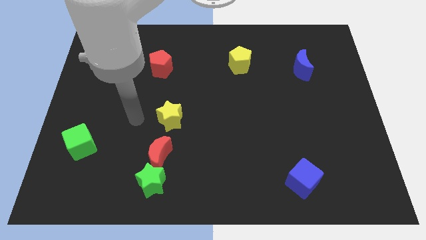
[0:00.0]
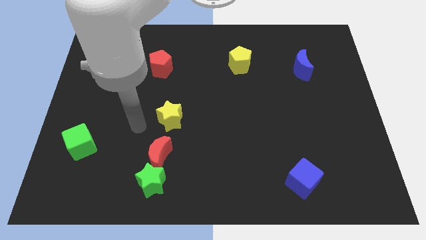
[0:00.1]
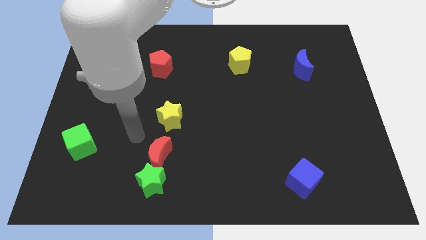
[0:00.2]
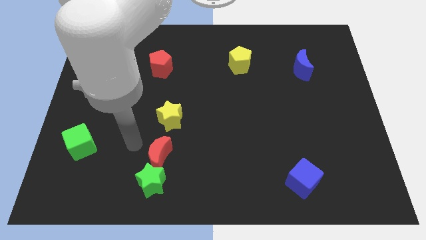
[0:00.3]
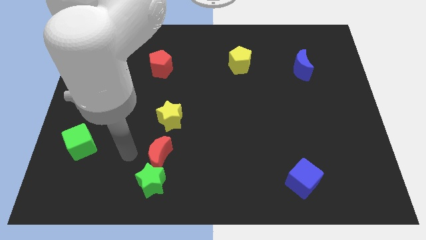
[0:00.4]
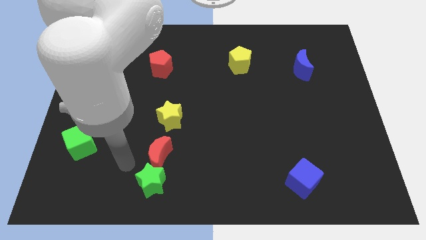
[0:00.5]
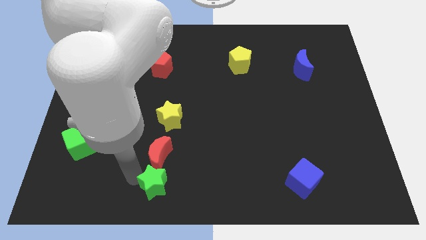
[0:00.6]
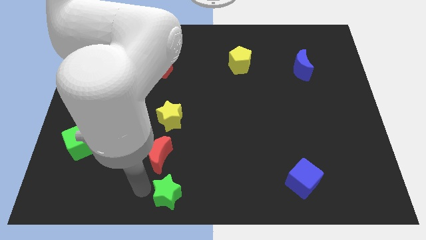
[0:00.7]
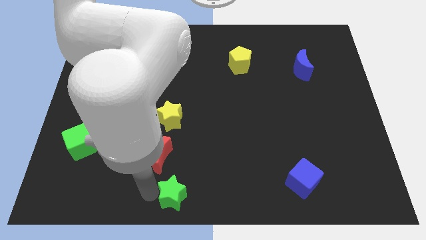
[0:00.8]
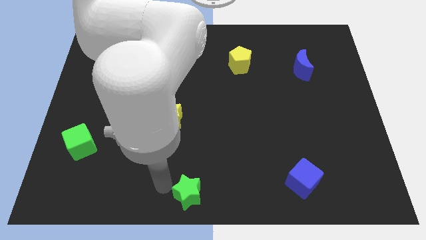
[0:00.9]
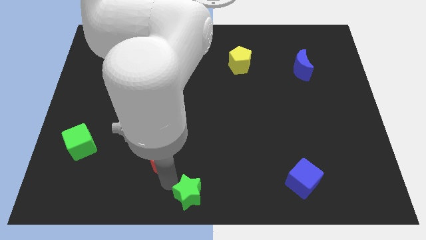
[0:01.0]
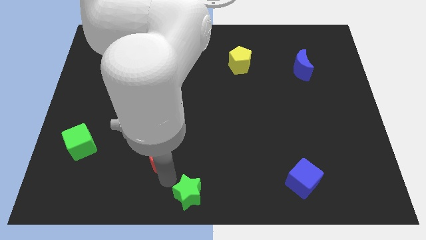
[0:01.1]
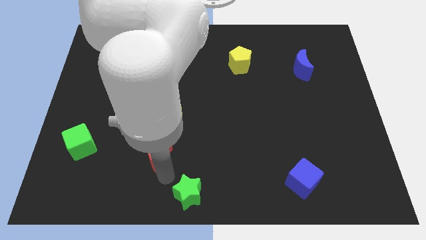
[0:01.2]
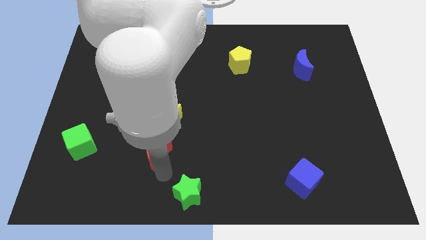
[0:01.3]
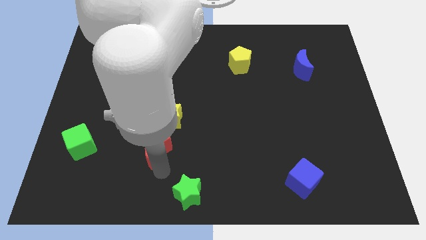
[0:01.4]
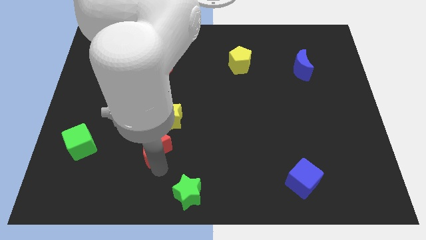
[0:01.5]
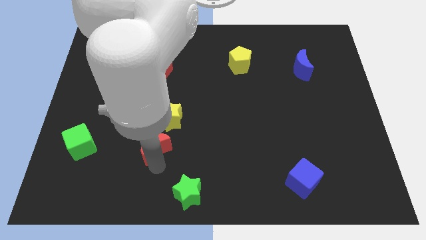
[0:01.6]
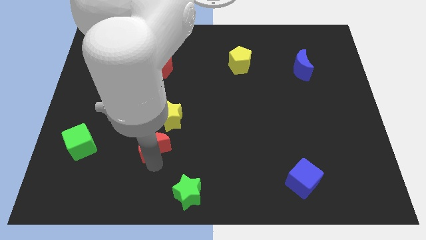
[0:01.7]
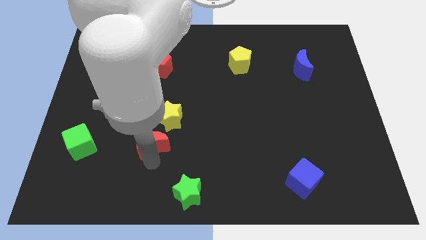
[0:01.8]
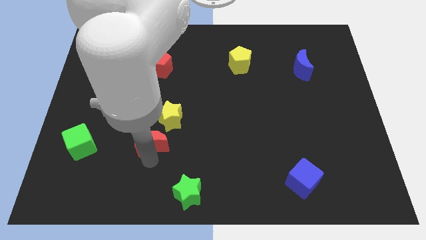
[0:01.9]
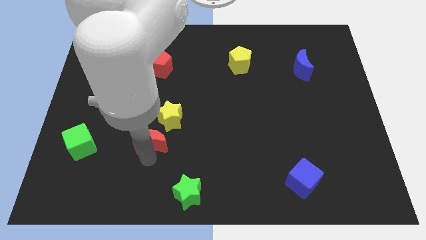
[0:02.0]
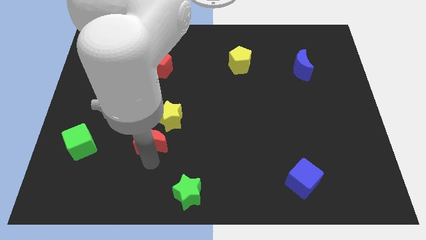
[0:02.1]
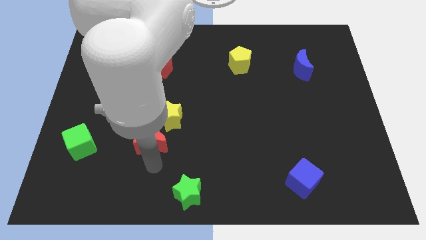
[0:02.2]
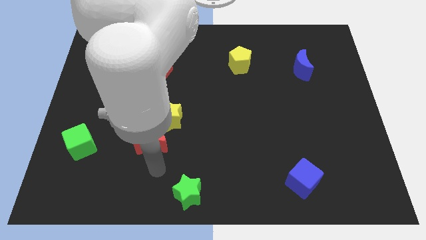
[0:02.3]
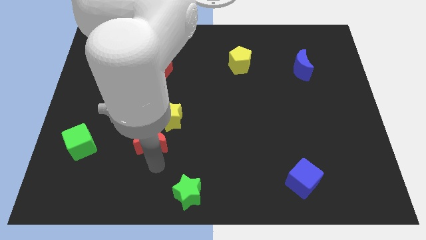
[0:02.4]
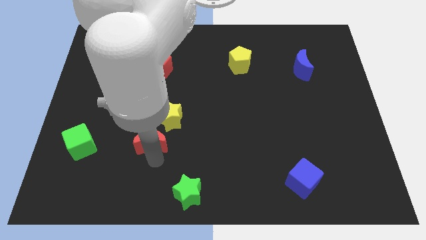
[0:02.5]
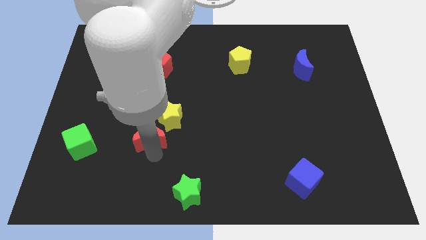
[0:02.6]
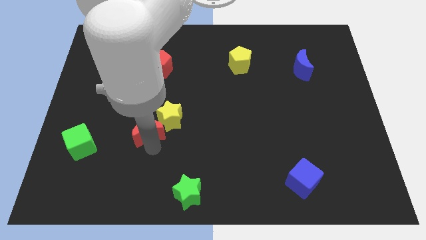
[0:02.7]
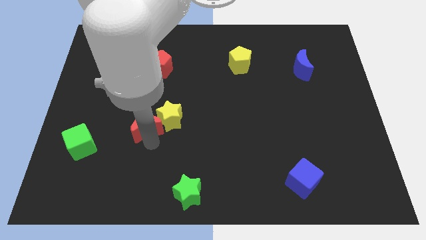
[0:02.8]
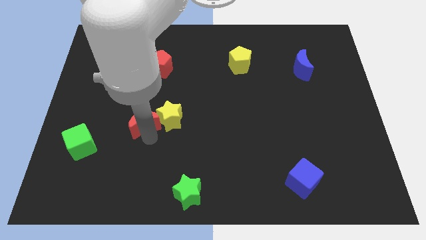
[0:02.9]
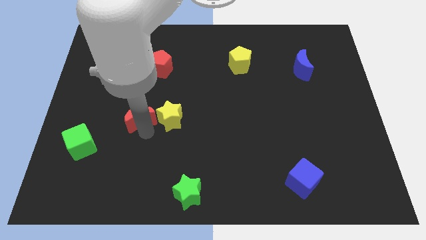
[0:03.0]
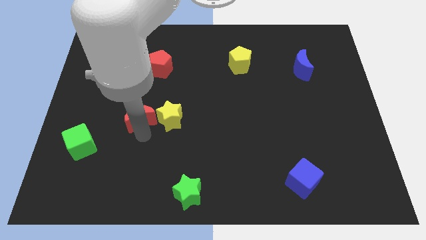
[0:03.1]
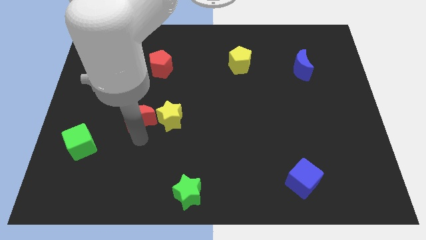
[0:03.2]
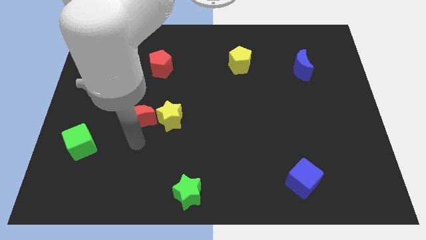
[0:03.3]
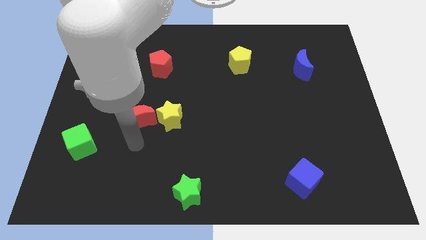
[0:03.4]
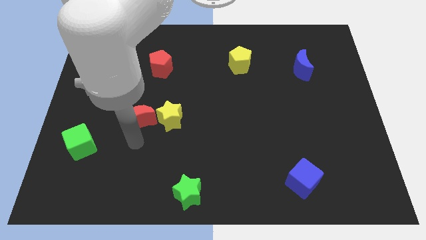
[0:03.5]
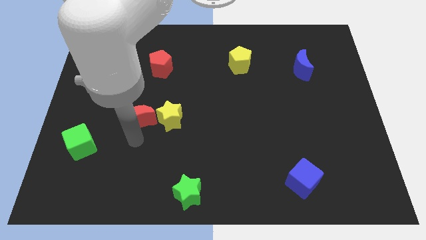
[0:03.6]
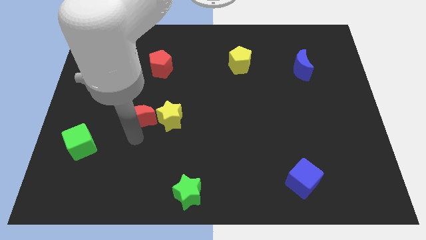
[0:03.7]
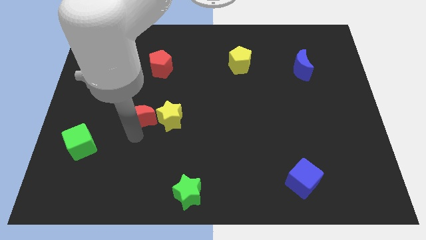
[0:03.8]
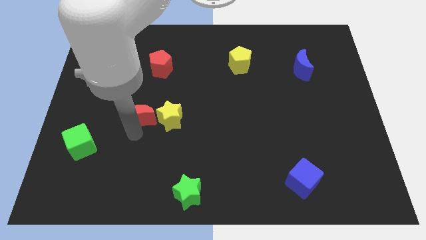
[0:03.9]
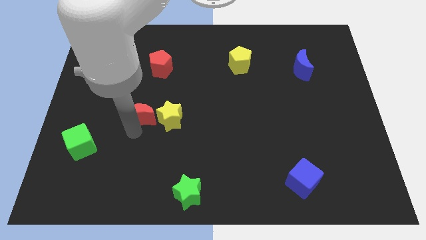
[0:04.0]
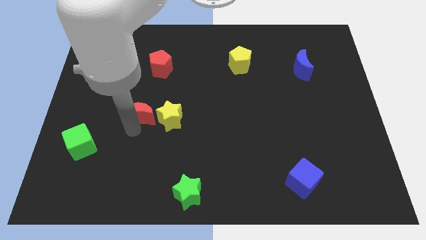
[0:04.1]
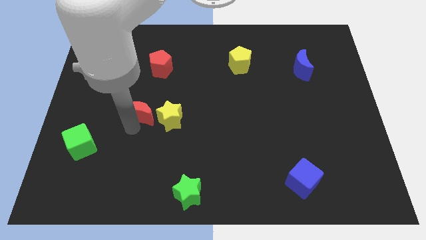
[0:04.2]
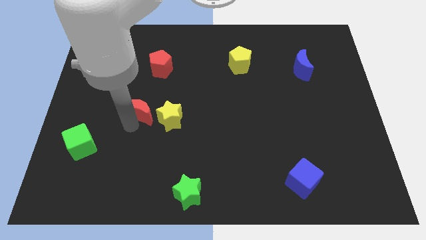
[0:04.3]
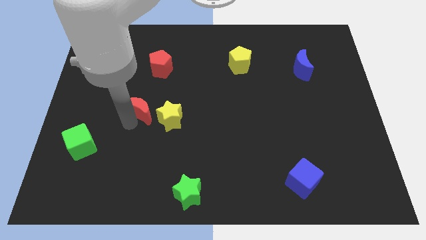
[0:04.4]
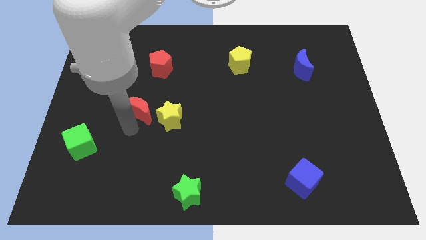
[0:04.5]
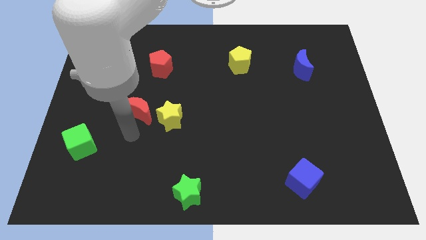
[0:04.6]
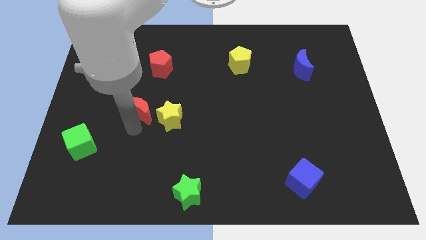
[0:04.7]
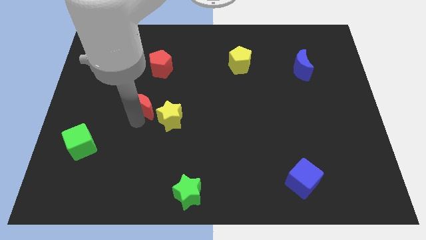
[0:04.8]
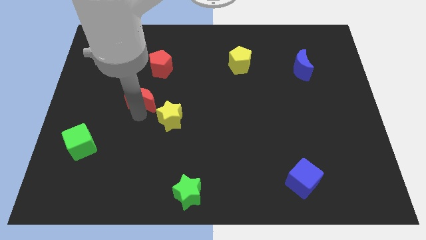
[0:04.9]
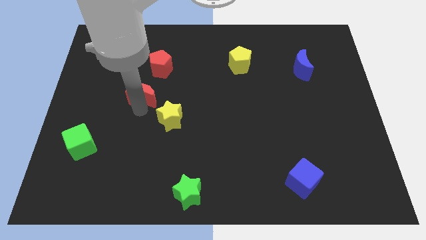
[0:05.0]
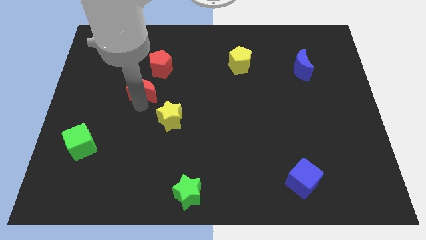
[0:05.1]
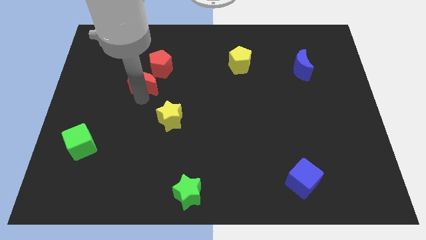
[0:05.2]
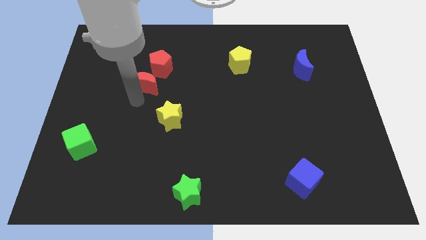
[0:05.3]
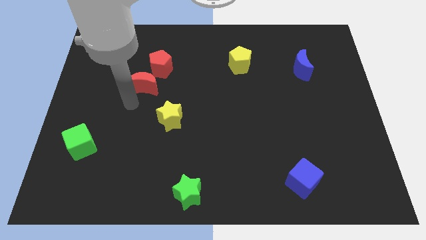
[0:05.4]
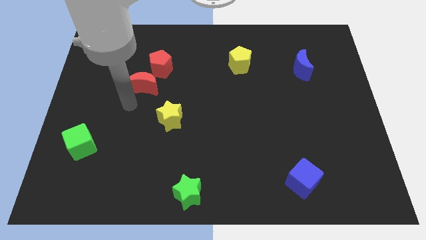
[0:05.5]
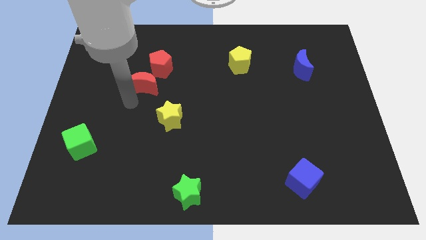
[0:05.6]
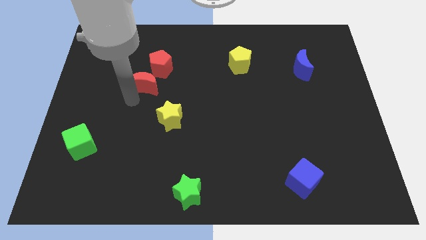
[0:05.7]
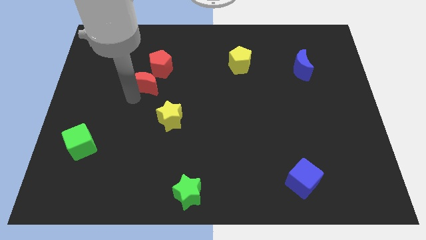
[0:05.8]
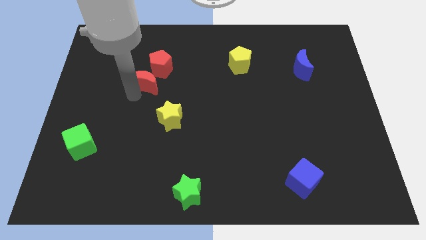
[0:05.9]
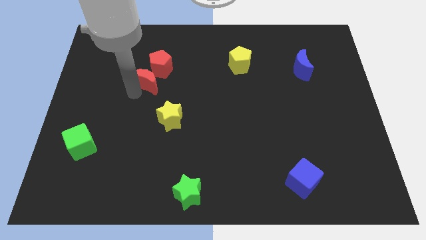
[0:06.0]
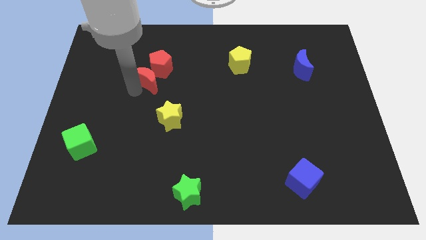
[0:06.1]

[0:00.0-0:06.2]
put the red moon next to the red pentagon

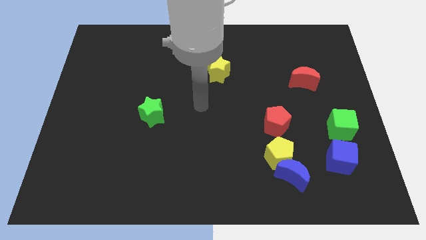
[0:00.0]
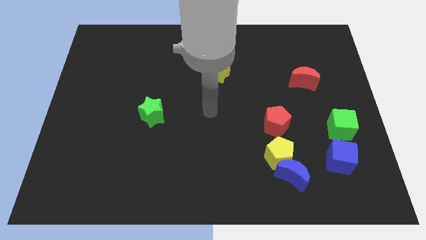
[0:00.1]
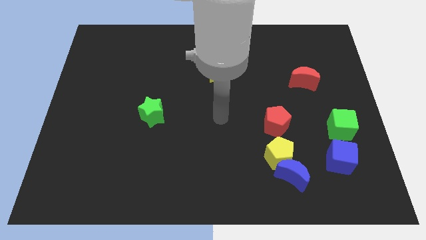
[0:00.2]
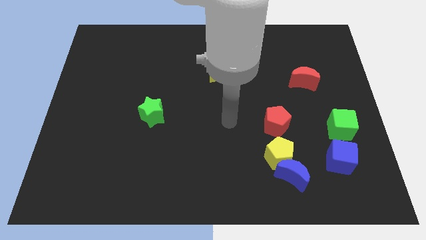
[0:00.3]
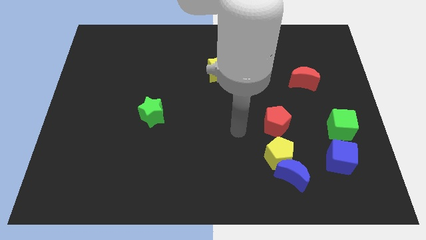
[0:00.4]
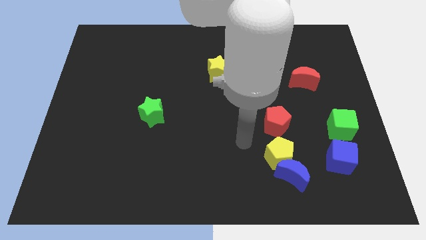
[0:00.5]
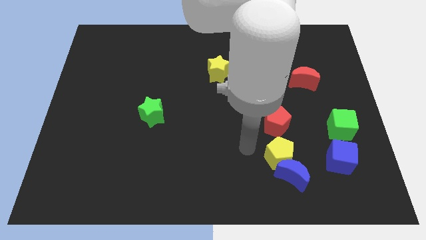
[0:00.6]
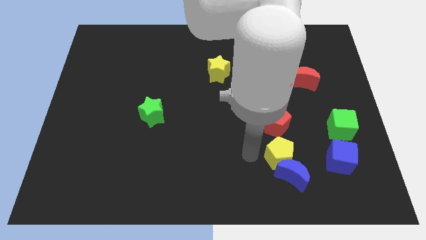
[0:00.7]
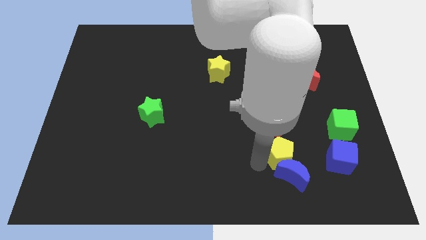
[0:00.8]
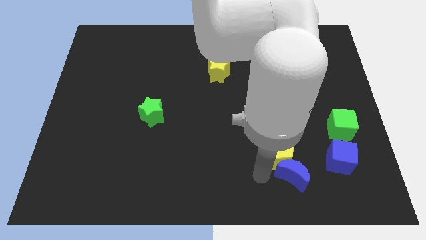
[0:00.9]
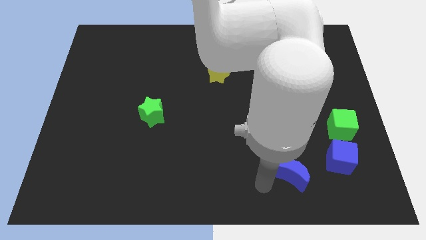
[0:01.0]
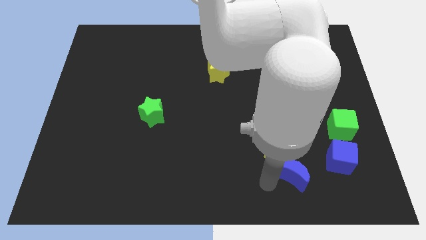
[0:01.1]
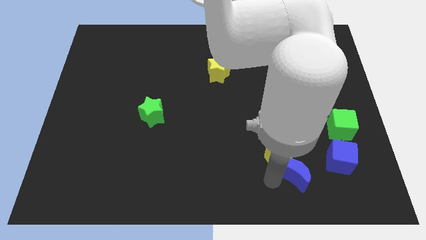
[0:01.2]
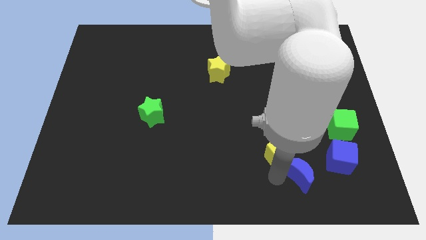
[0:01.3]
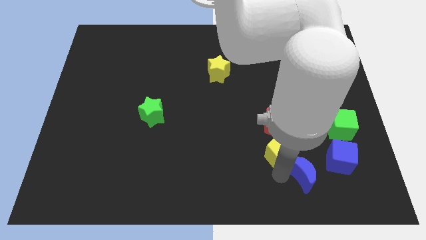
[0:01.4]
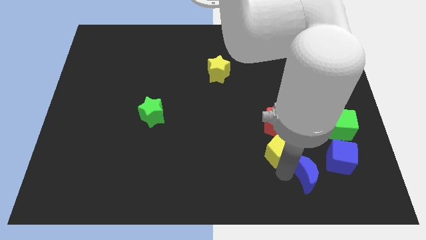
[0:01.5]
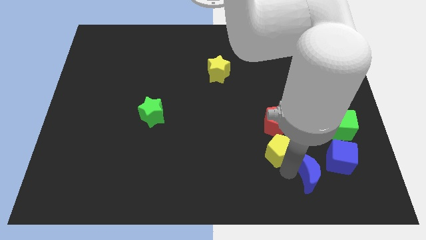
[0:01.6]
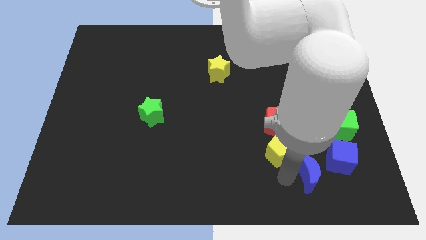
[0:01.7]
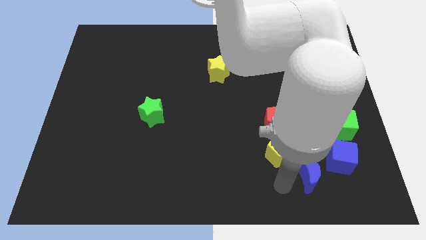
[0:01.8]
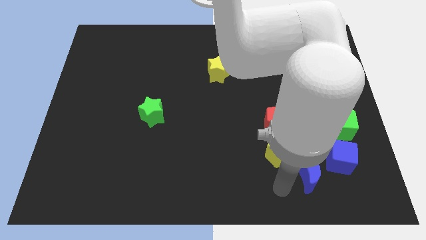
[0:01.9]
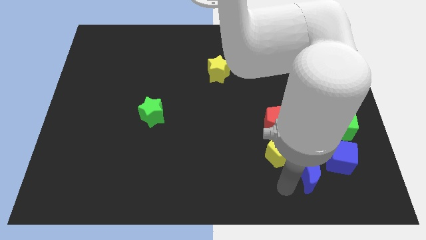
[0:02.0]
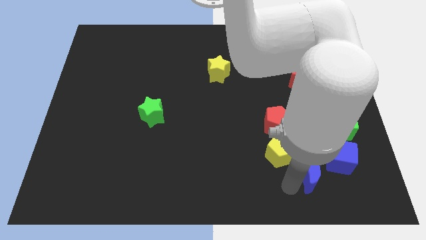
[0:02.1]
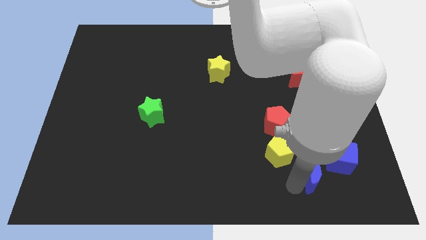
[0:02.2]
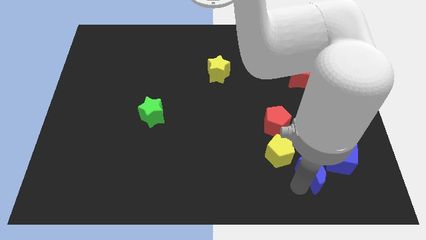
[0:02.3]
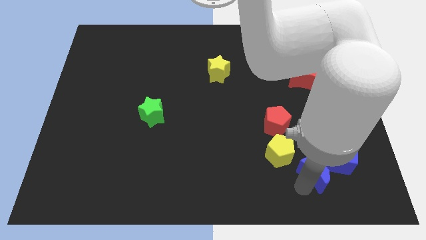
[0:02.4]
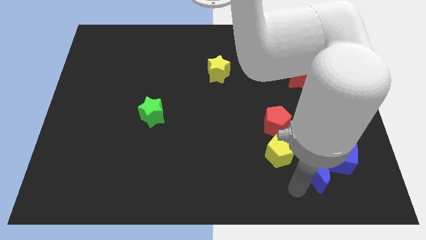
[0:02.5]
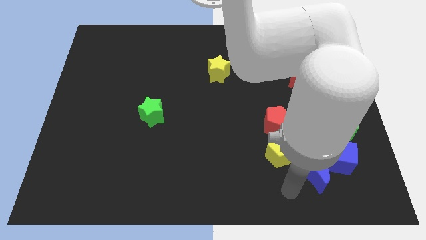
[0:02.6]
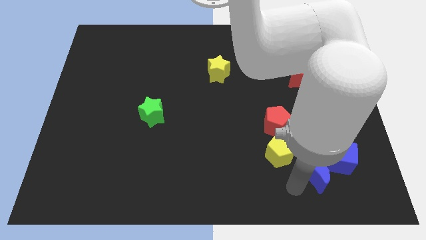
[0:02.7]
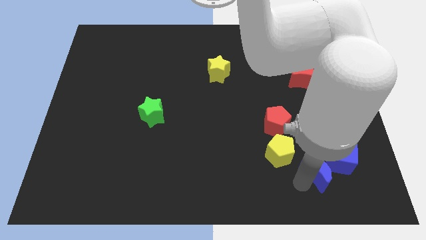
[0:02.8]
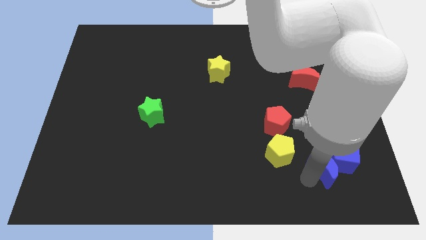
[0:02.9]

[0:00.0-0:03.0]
move the blue moon to the blue cube
